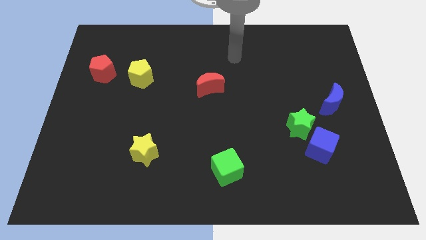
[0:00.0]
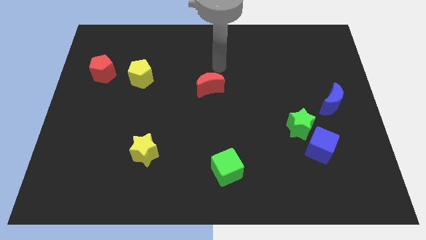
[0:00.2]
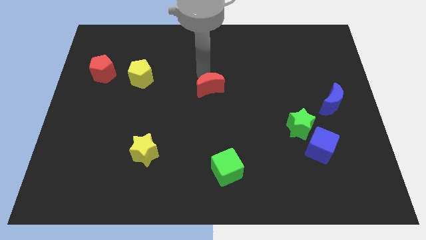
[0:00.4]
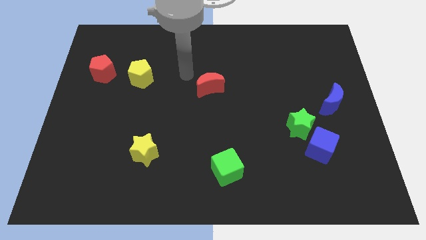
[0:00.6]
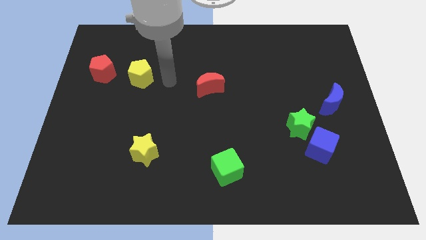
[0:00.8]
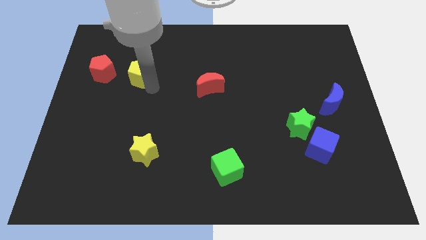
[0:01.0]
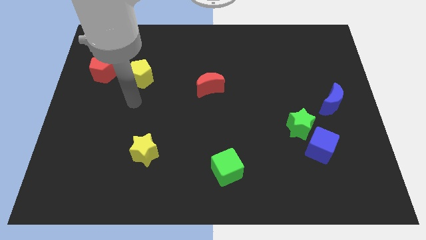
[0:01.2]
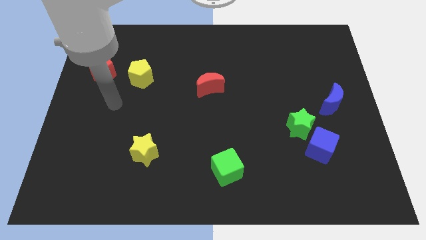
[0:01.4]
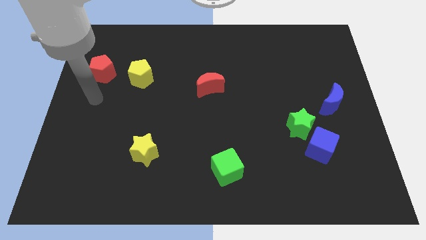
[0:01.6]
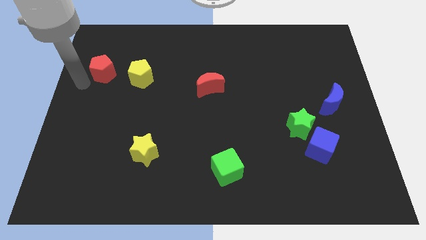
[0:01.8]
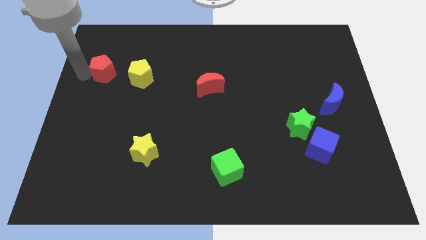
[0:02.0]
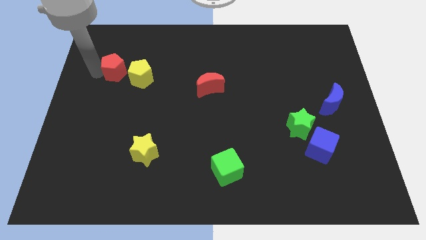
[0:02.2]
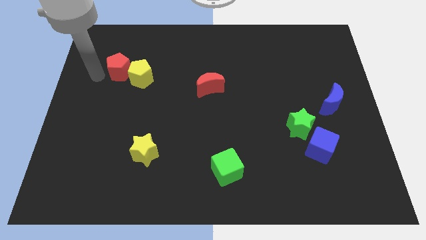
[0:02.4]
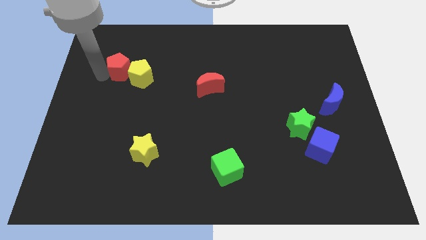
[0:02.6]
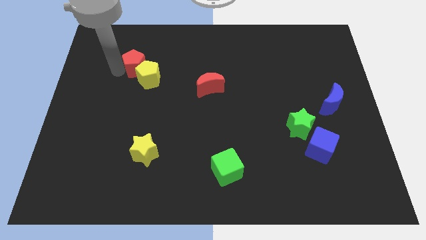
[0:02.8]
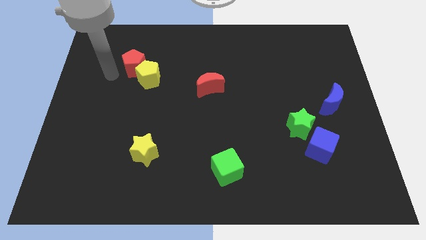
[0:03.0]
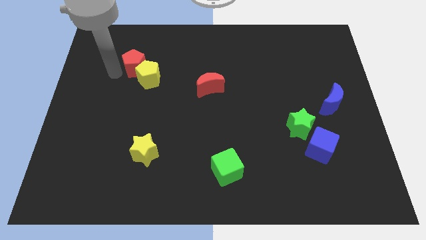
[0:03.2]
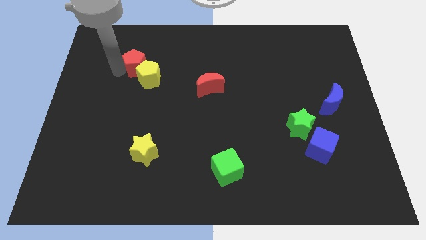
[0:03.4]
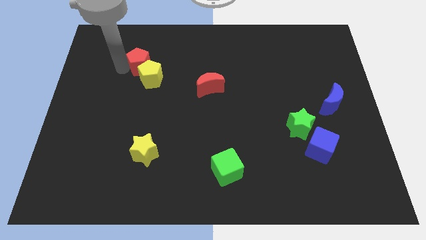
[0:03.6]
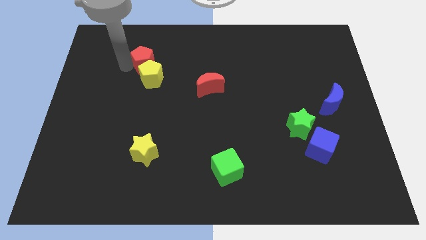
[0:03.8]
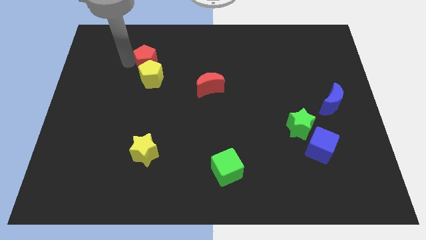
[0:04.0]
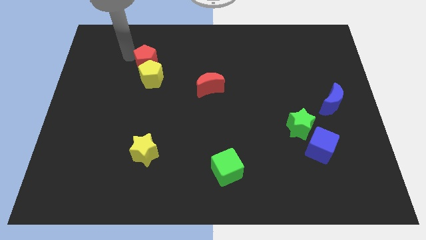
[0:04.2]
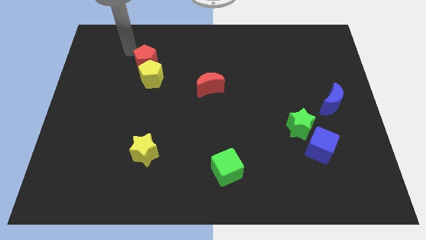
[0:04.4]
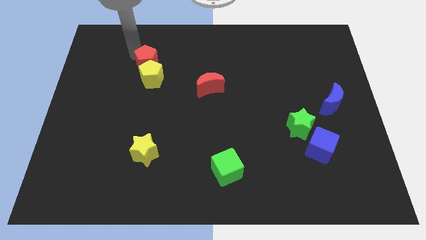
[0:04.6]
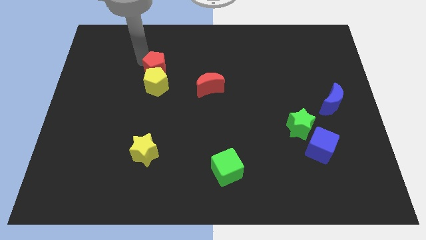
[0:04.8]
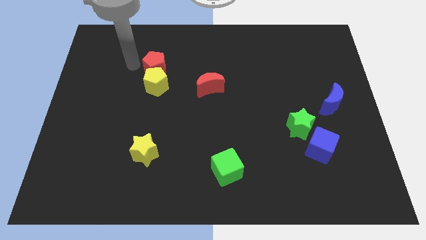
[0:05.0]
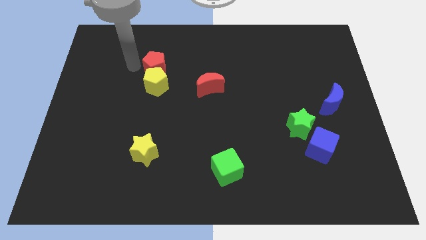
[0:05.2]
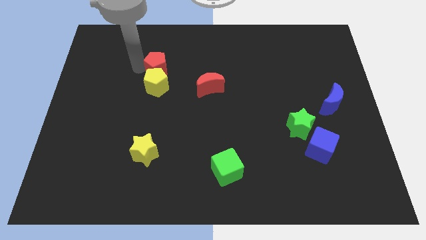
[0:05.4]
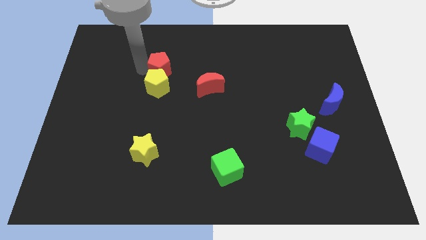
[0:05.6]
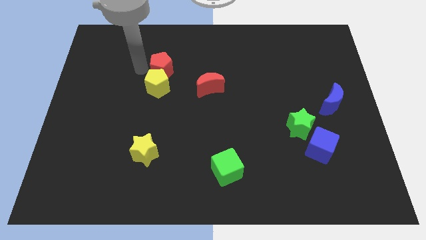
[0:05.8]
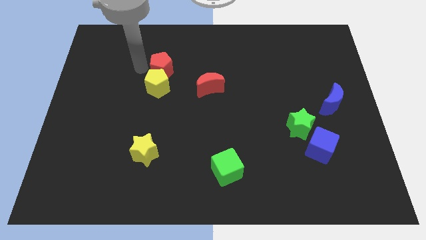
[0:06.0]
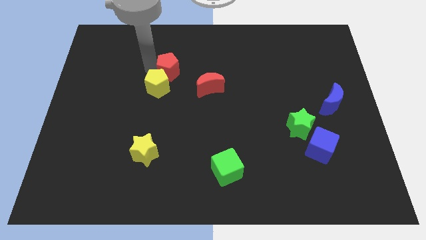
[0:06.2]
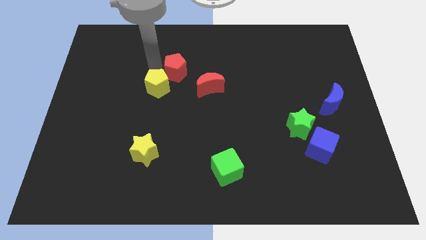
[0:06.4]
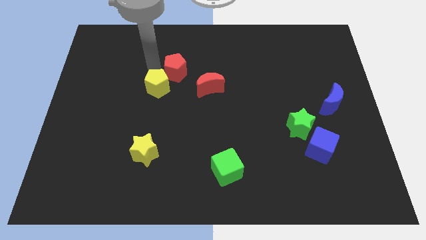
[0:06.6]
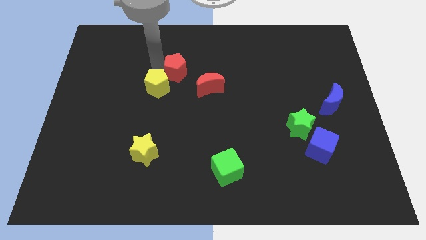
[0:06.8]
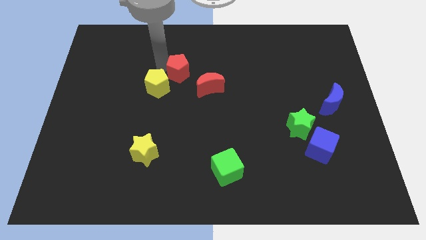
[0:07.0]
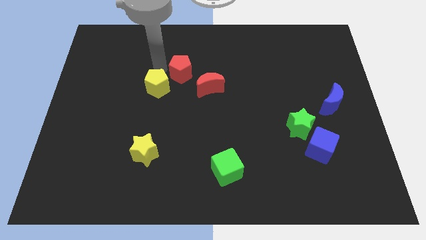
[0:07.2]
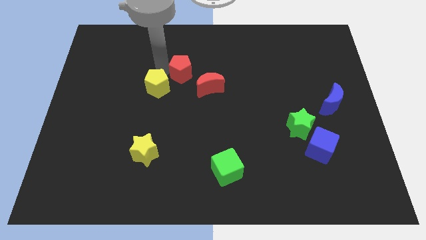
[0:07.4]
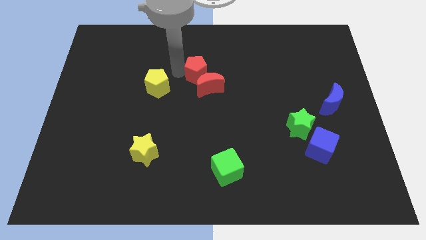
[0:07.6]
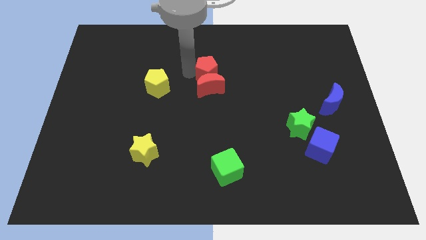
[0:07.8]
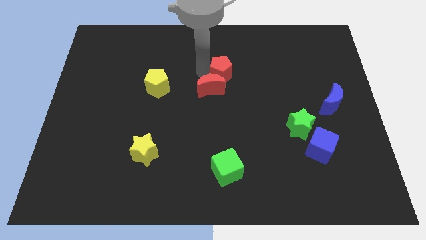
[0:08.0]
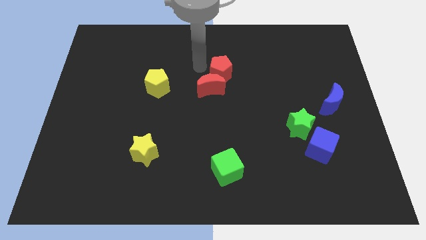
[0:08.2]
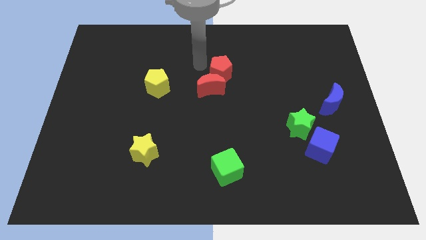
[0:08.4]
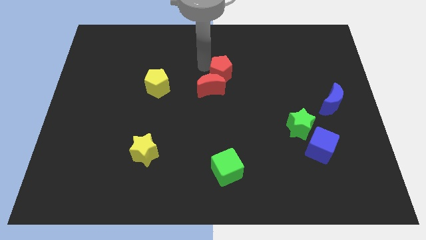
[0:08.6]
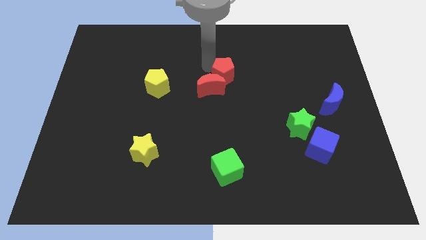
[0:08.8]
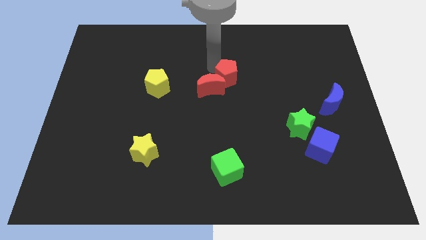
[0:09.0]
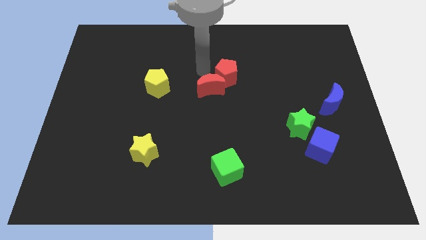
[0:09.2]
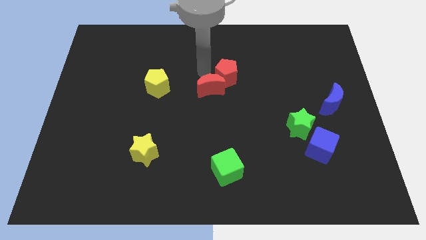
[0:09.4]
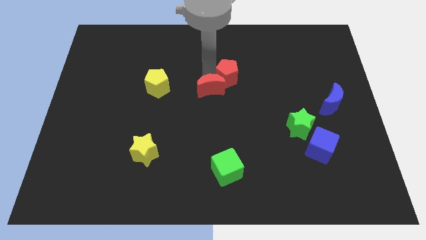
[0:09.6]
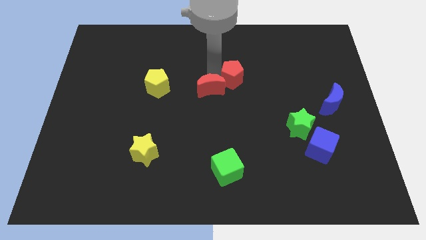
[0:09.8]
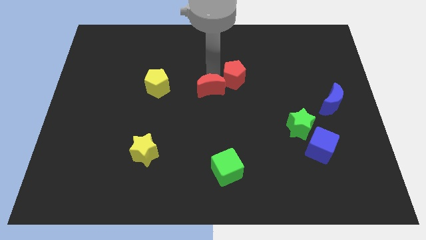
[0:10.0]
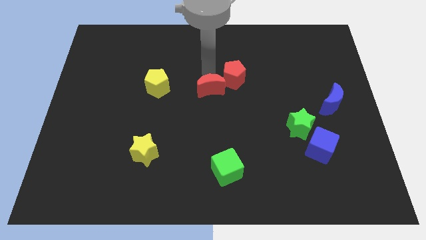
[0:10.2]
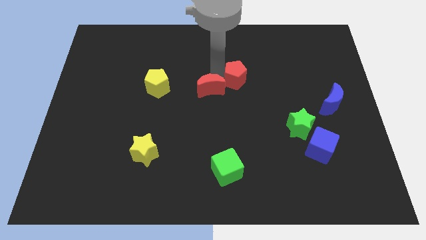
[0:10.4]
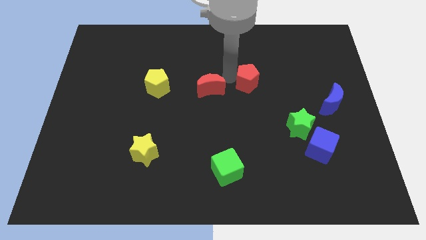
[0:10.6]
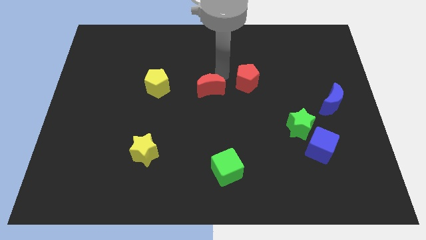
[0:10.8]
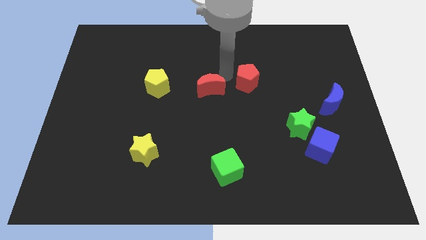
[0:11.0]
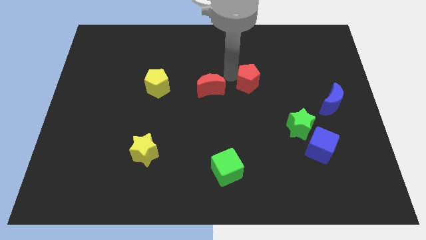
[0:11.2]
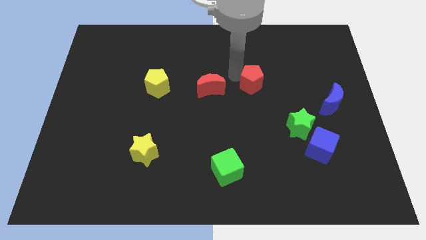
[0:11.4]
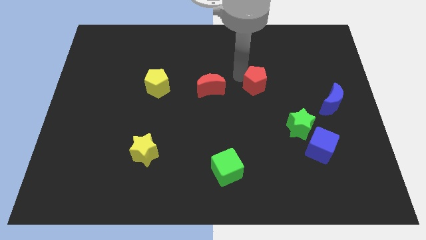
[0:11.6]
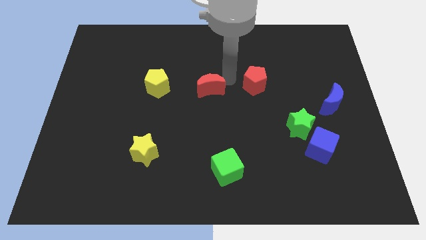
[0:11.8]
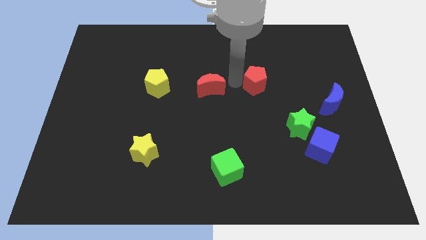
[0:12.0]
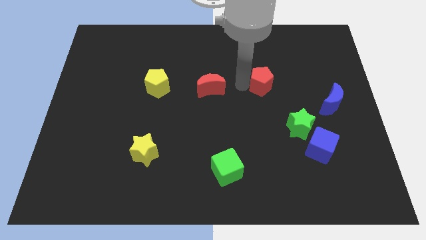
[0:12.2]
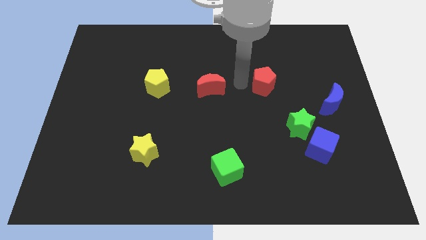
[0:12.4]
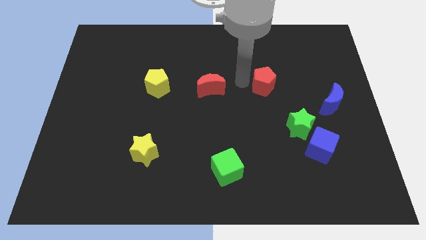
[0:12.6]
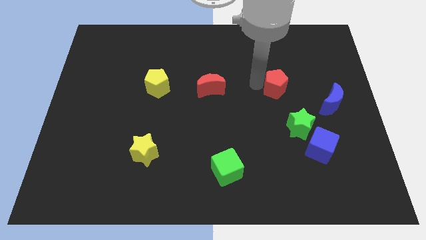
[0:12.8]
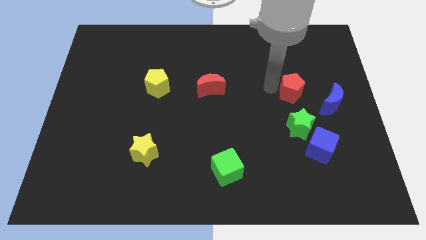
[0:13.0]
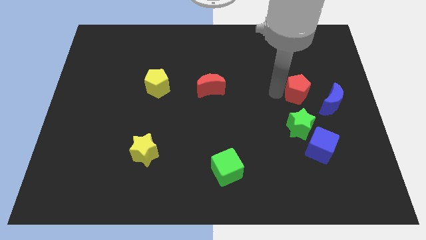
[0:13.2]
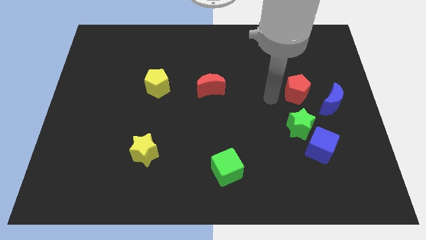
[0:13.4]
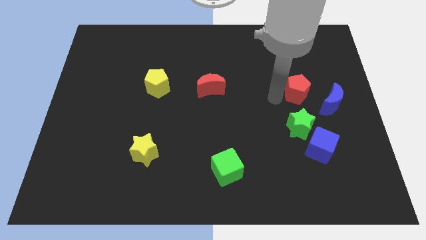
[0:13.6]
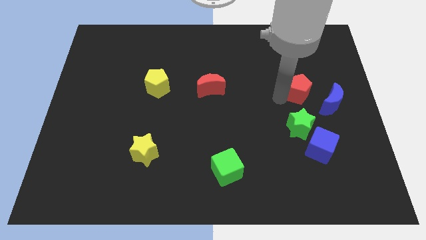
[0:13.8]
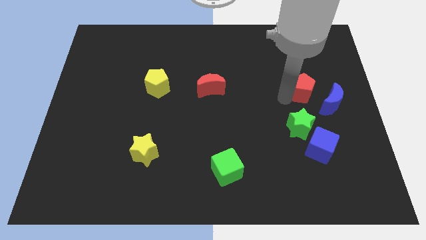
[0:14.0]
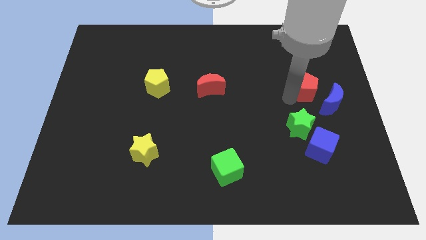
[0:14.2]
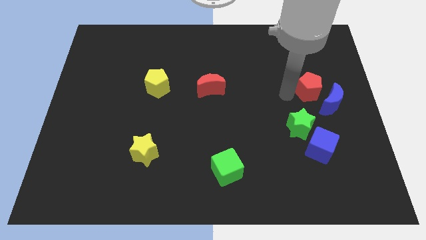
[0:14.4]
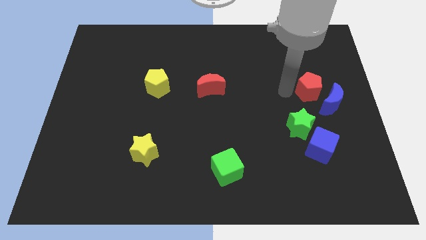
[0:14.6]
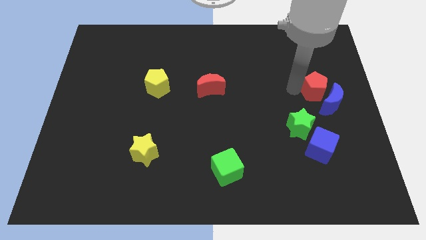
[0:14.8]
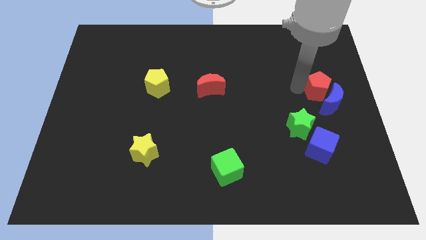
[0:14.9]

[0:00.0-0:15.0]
push the red pentagon to the center right

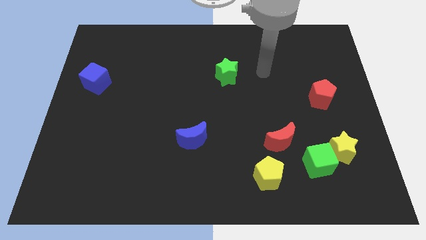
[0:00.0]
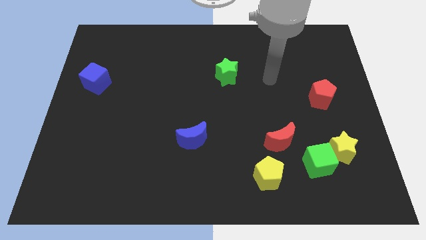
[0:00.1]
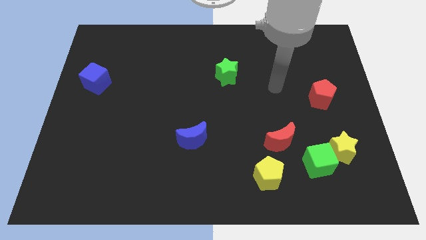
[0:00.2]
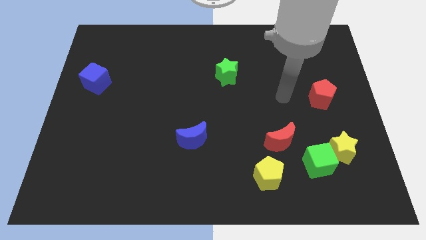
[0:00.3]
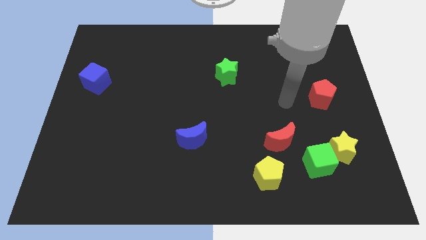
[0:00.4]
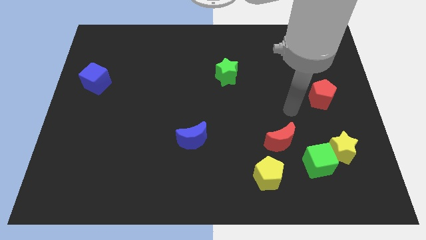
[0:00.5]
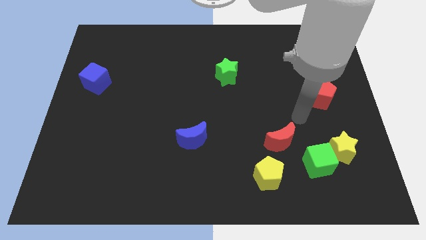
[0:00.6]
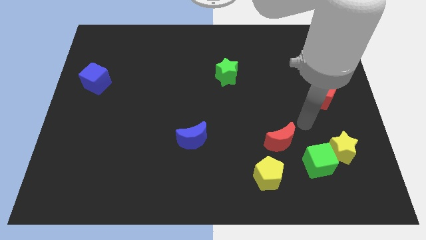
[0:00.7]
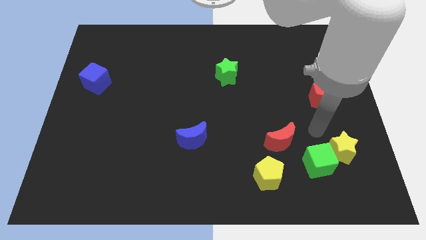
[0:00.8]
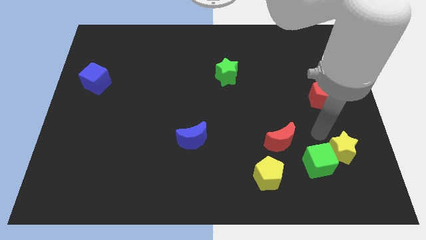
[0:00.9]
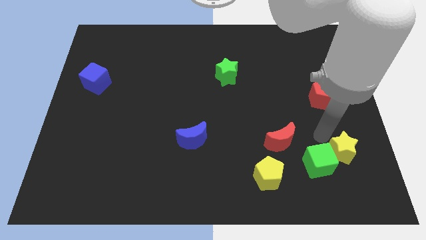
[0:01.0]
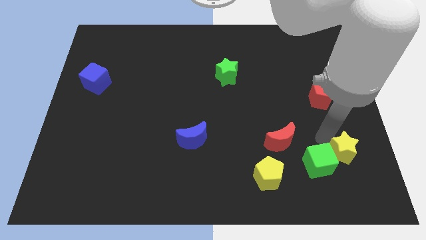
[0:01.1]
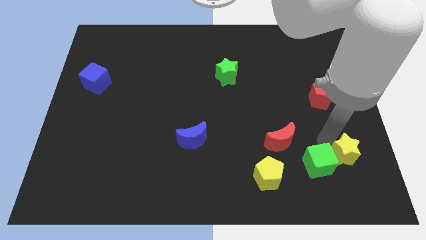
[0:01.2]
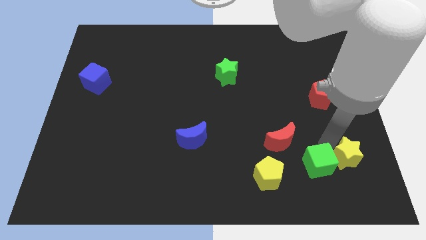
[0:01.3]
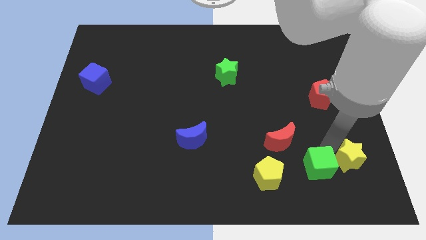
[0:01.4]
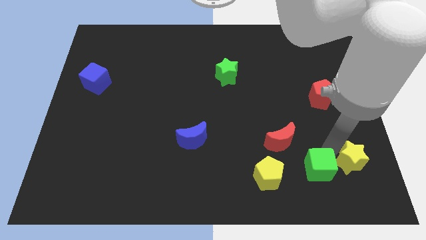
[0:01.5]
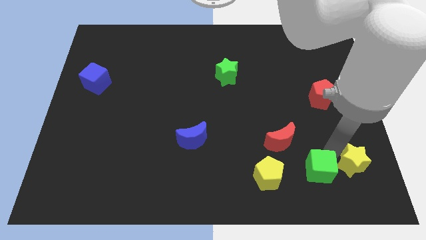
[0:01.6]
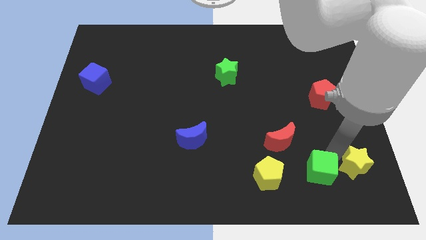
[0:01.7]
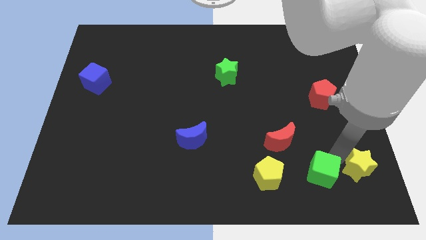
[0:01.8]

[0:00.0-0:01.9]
slide the yellow star to the bottom right
